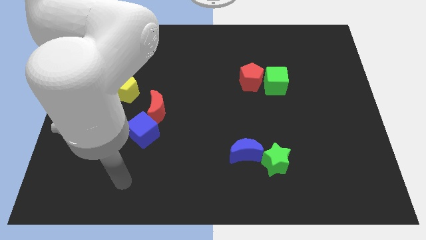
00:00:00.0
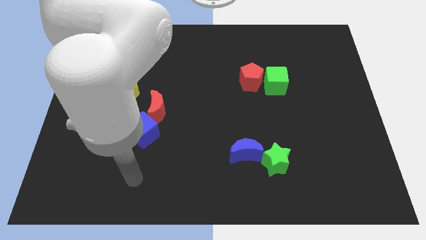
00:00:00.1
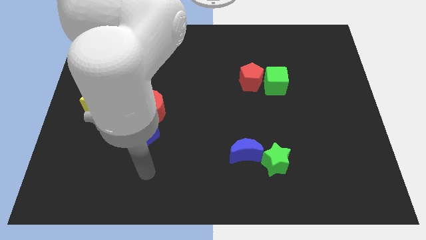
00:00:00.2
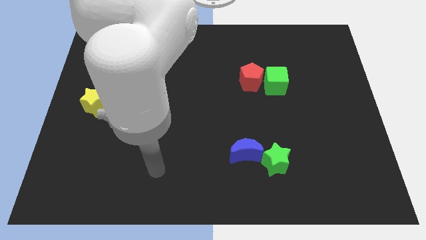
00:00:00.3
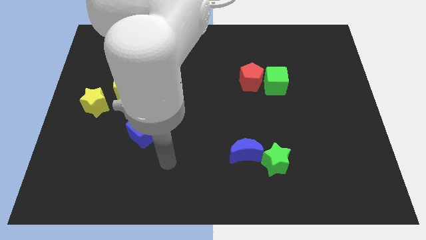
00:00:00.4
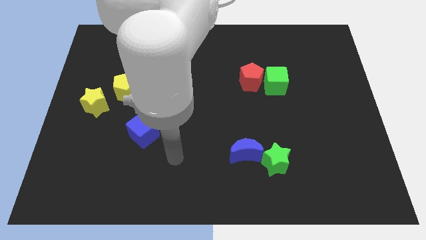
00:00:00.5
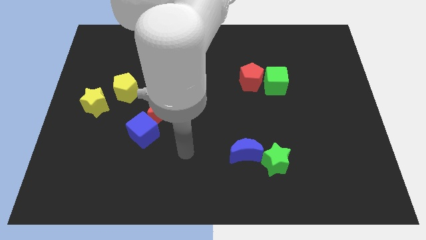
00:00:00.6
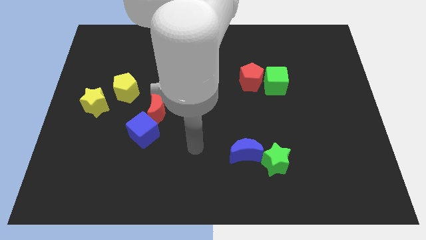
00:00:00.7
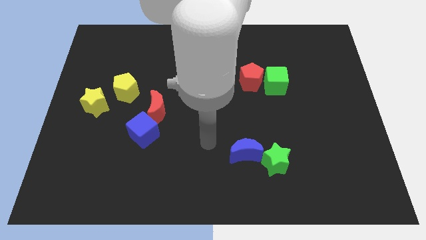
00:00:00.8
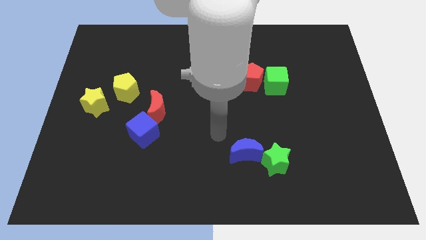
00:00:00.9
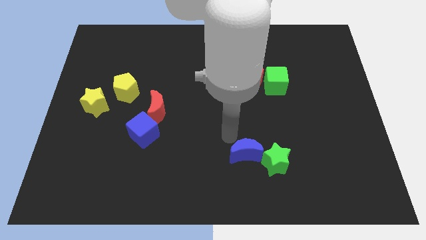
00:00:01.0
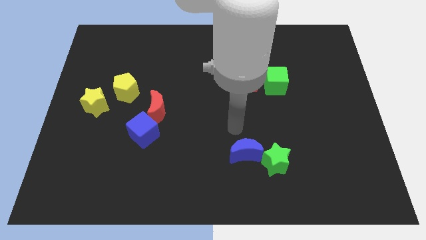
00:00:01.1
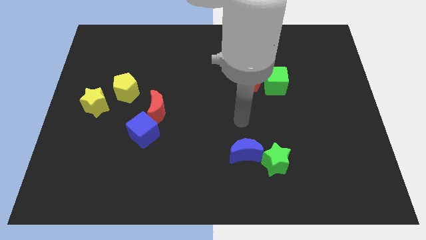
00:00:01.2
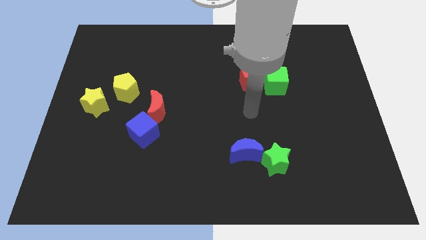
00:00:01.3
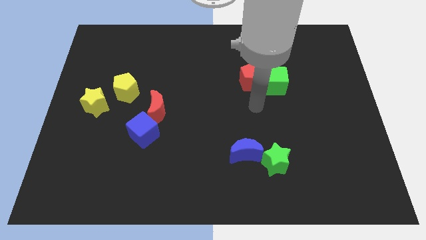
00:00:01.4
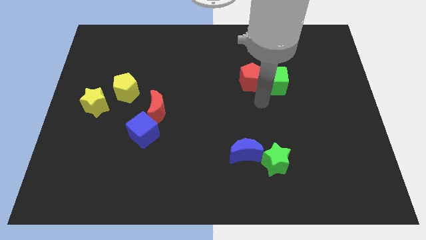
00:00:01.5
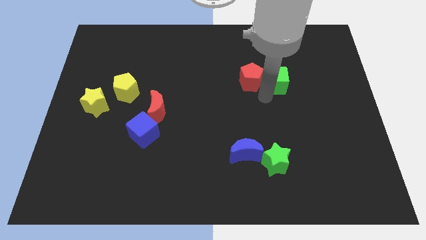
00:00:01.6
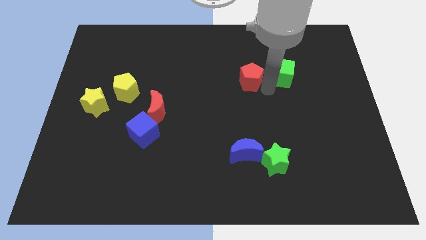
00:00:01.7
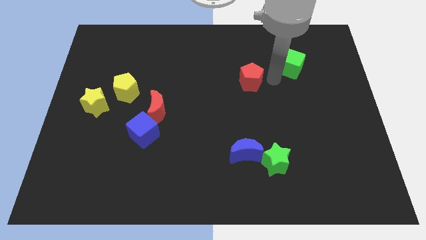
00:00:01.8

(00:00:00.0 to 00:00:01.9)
pull the red pentagon apart from the green cube

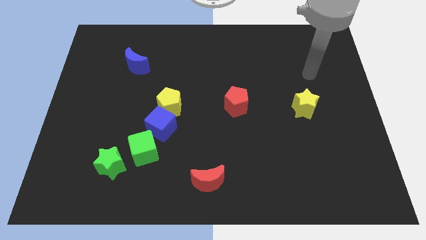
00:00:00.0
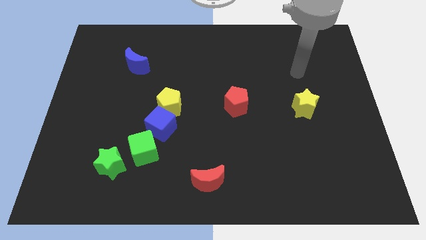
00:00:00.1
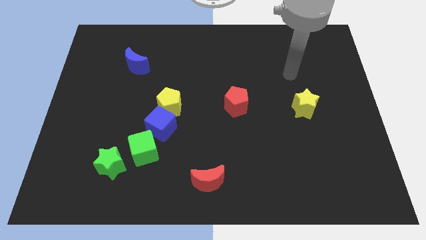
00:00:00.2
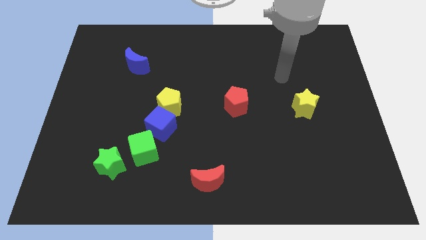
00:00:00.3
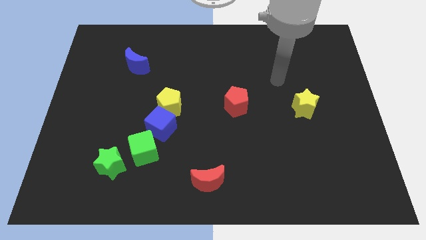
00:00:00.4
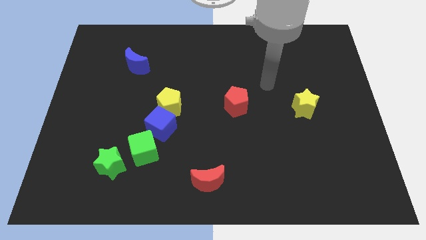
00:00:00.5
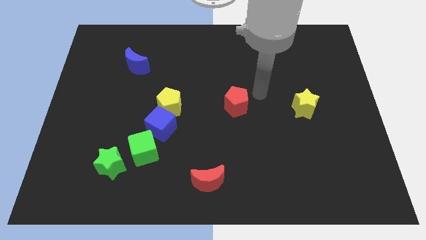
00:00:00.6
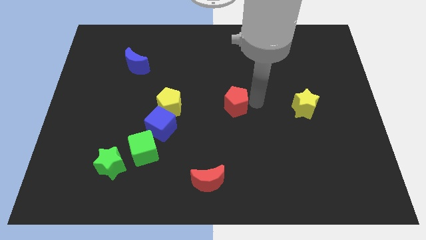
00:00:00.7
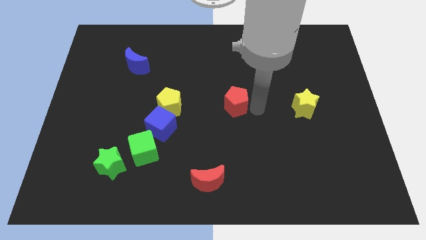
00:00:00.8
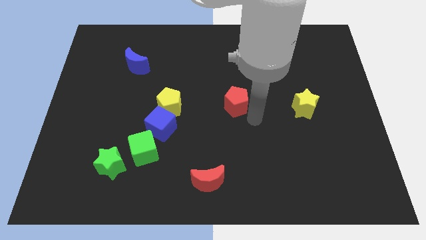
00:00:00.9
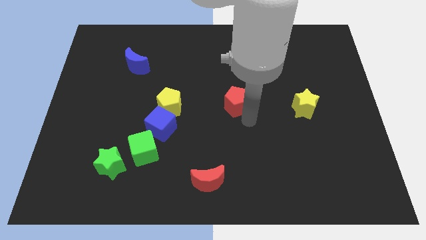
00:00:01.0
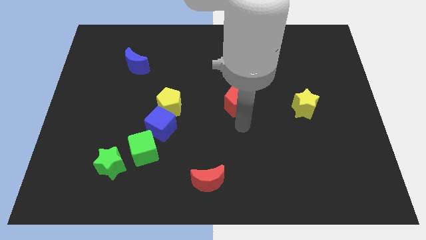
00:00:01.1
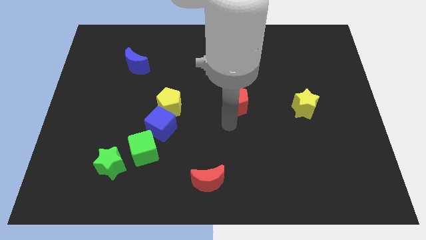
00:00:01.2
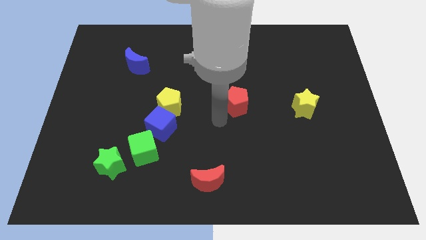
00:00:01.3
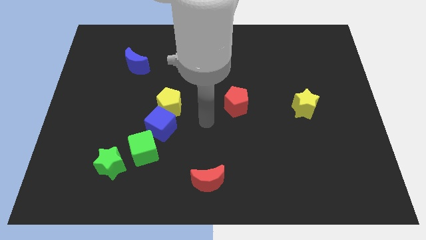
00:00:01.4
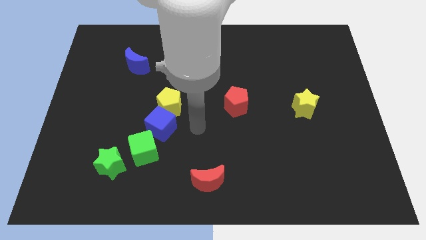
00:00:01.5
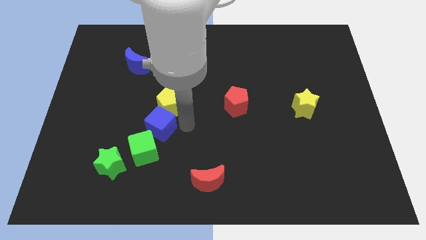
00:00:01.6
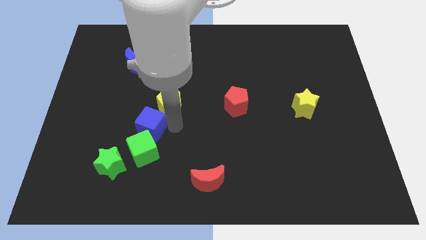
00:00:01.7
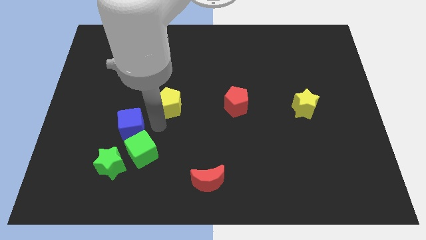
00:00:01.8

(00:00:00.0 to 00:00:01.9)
separate the yellow pentagon from the blue cube

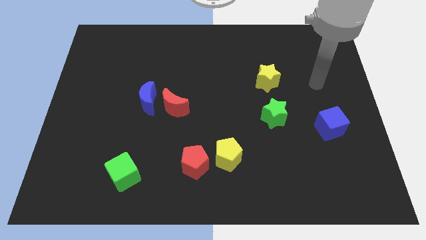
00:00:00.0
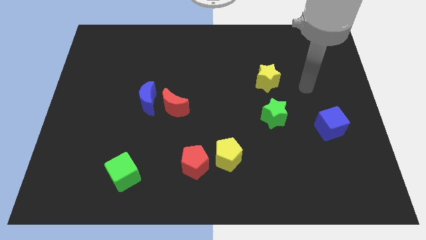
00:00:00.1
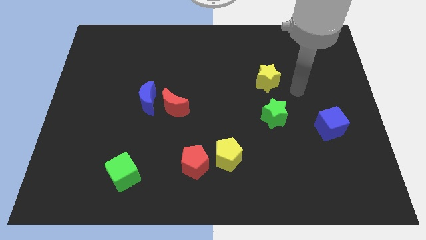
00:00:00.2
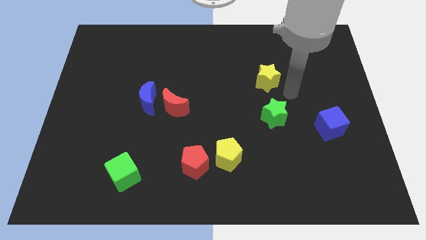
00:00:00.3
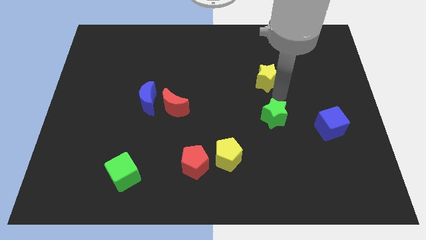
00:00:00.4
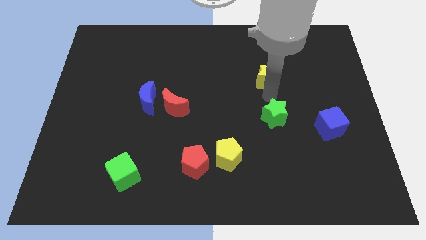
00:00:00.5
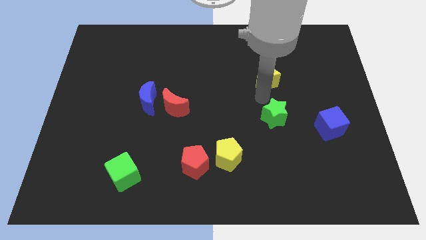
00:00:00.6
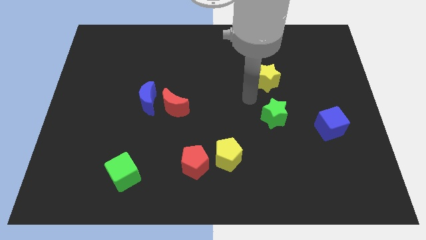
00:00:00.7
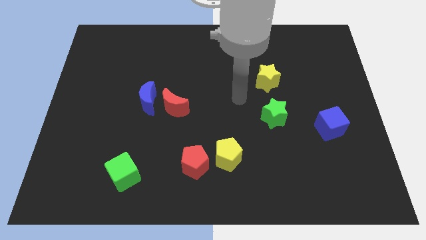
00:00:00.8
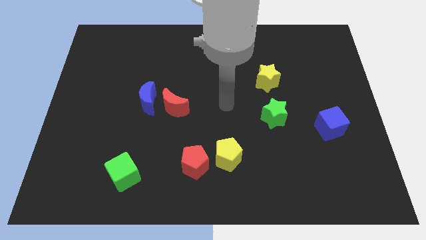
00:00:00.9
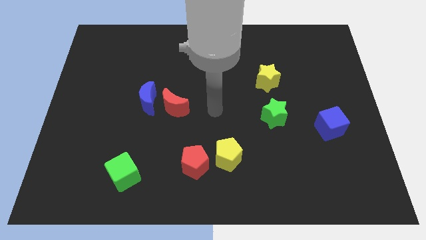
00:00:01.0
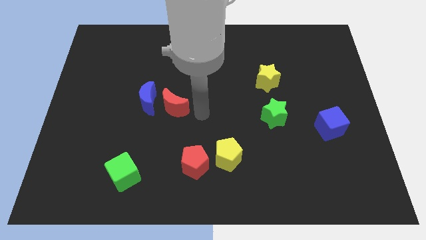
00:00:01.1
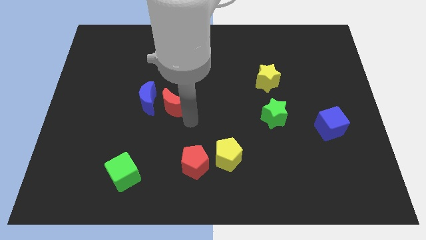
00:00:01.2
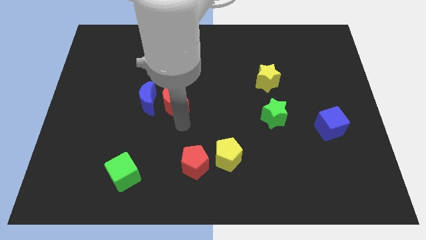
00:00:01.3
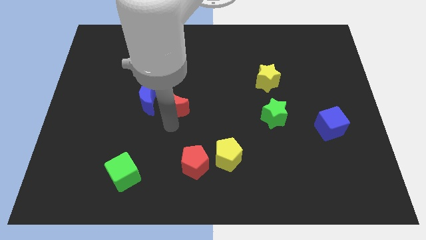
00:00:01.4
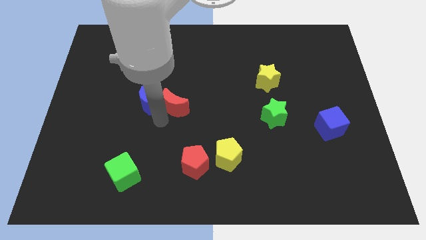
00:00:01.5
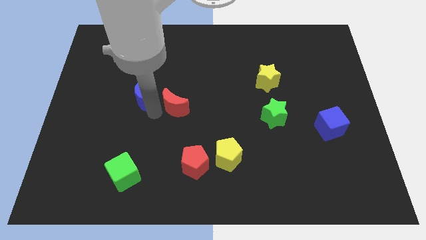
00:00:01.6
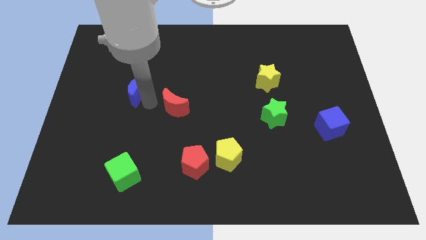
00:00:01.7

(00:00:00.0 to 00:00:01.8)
pull the red moon apart from the blue moon

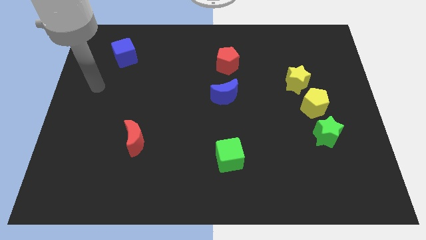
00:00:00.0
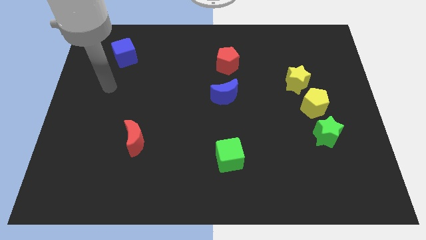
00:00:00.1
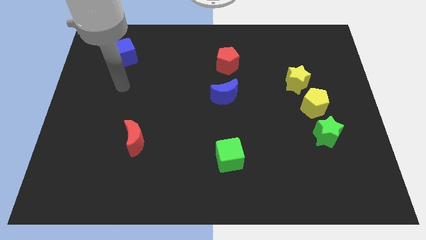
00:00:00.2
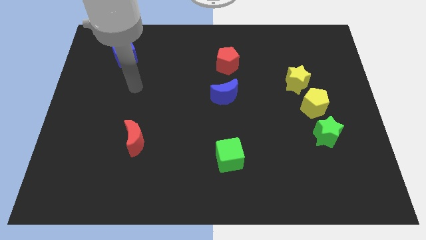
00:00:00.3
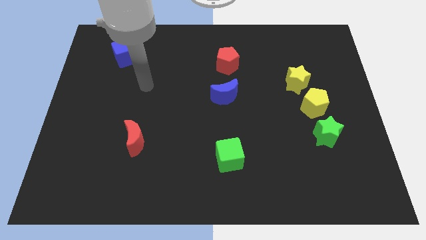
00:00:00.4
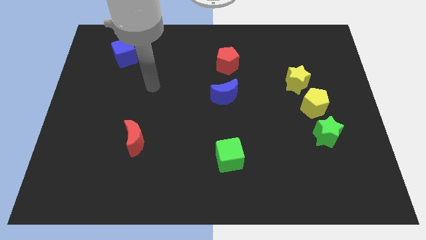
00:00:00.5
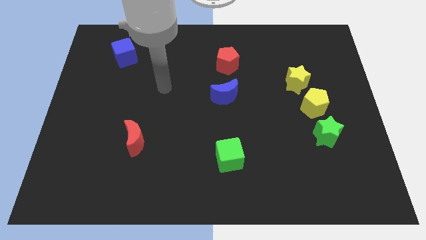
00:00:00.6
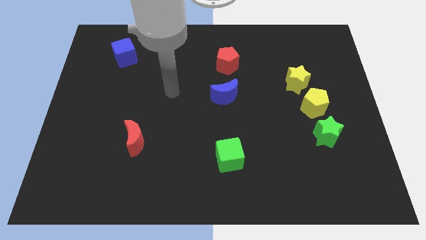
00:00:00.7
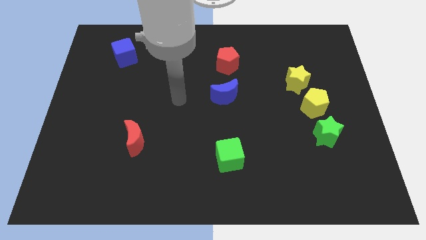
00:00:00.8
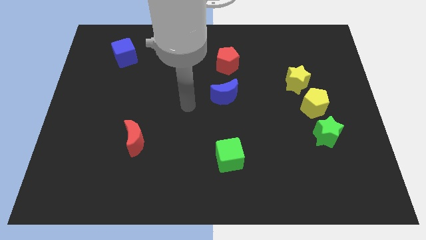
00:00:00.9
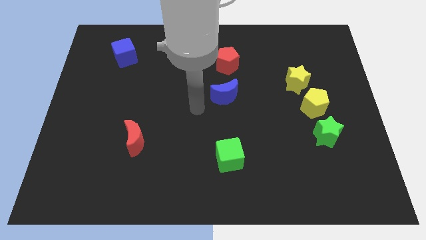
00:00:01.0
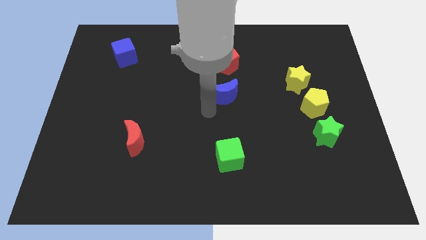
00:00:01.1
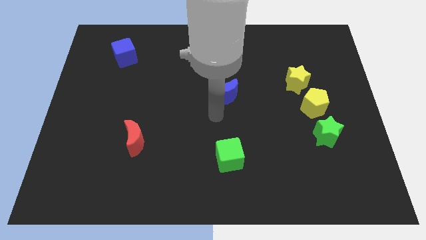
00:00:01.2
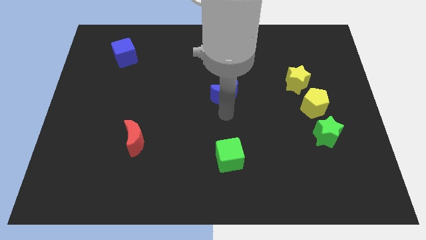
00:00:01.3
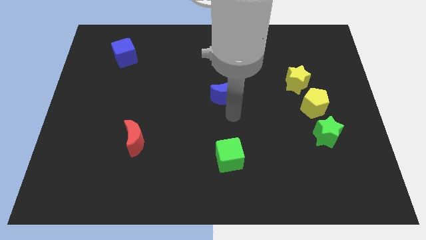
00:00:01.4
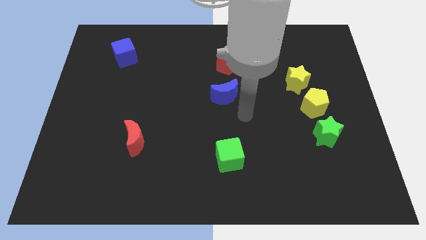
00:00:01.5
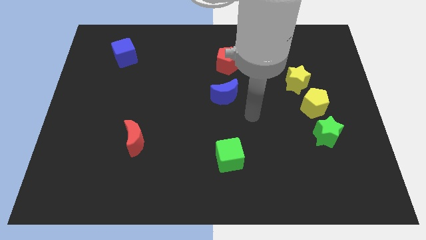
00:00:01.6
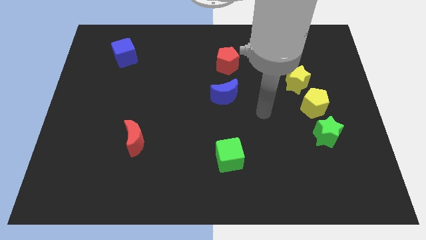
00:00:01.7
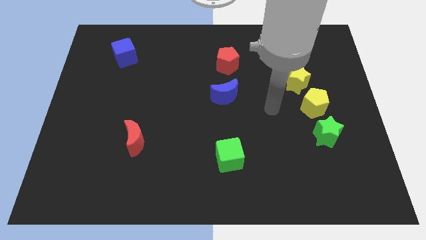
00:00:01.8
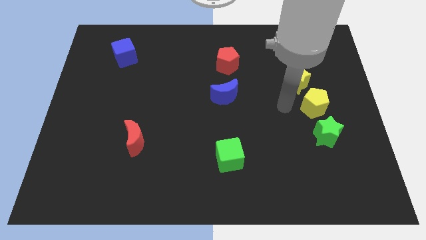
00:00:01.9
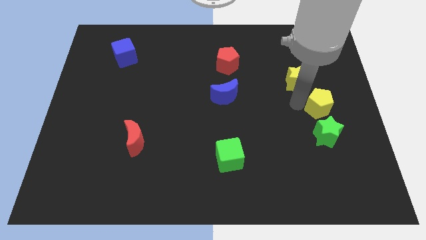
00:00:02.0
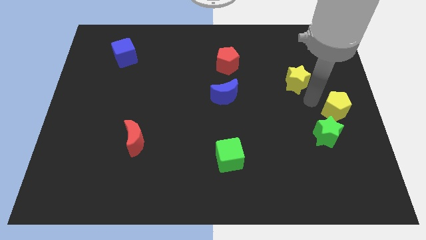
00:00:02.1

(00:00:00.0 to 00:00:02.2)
pull the yellow star apart from the yellow pentagon

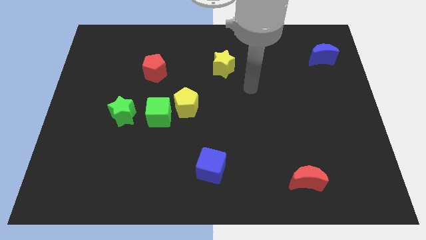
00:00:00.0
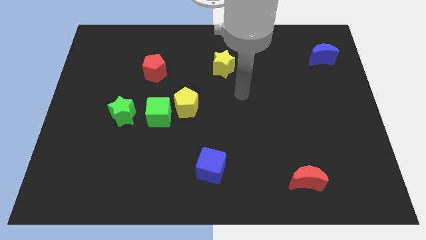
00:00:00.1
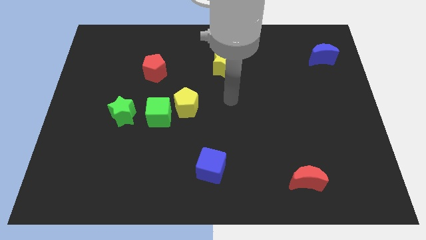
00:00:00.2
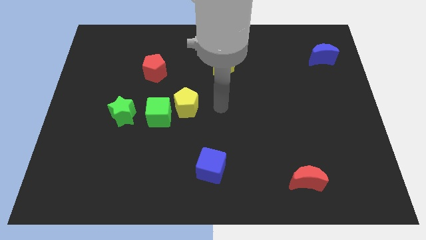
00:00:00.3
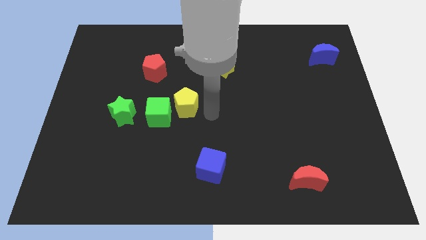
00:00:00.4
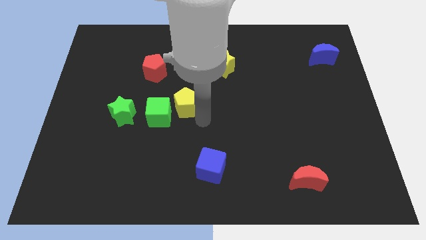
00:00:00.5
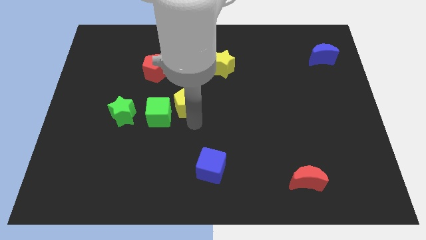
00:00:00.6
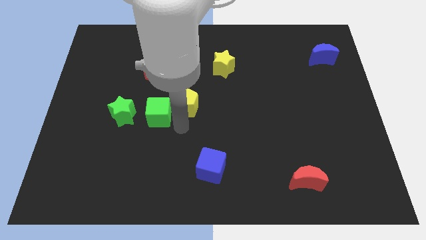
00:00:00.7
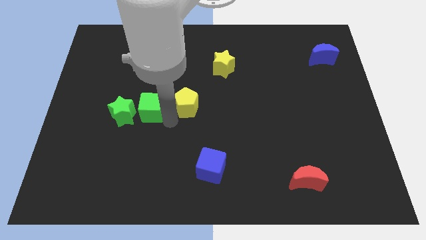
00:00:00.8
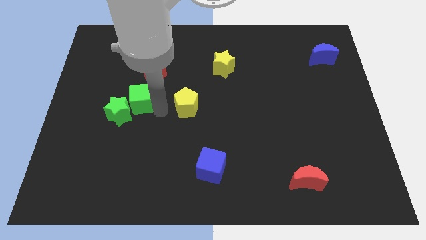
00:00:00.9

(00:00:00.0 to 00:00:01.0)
separate the yellow pentagon from the green cube

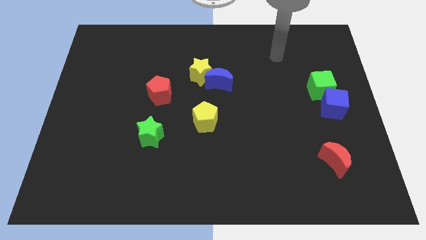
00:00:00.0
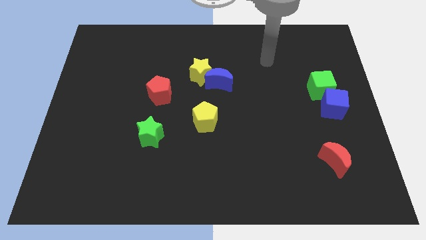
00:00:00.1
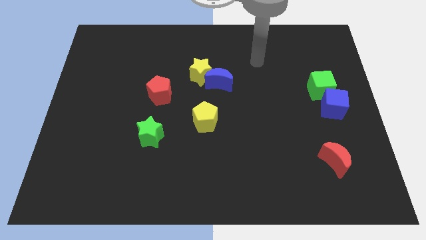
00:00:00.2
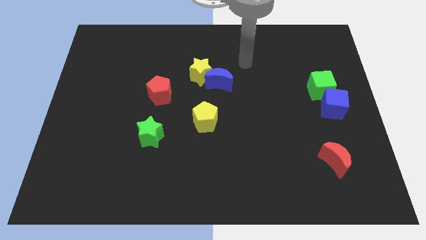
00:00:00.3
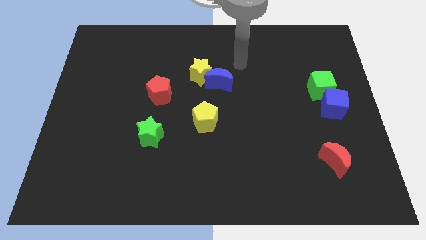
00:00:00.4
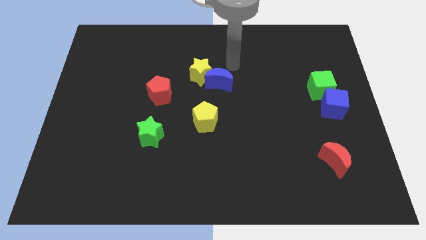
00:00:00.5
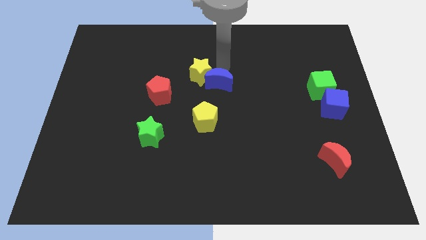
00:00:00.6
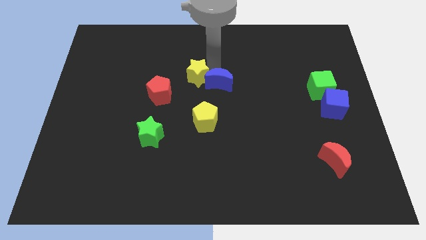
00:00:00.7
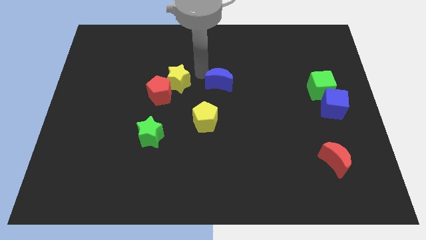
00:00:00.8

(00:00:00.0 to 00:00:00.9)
separate the blue moon from the yellow star
